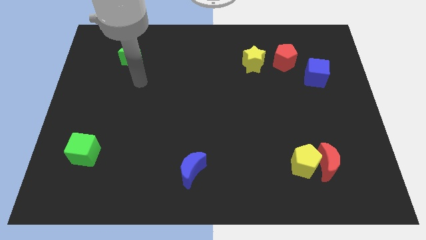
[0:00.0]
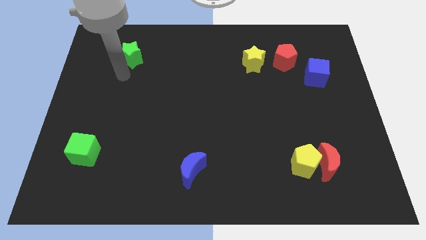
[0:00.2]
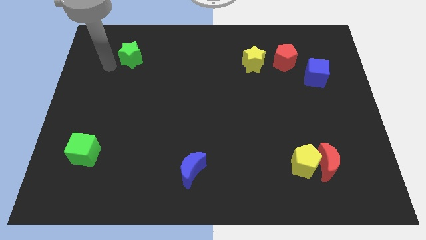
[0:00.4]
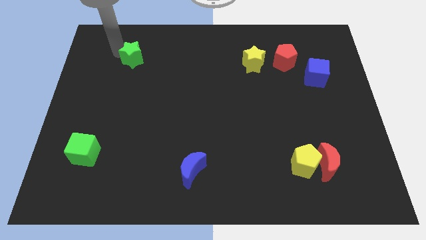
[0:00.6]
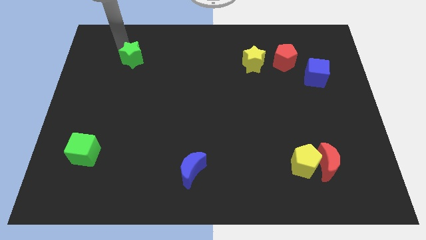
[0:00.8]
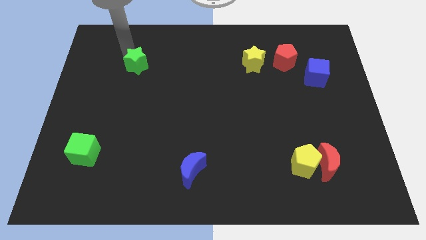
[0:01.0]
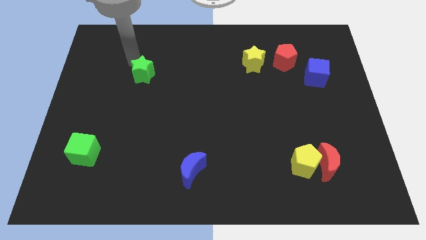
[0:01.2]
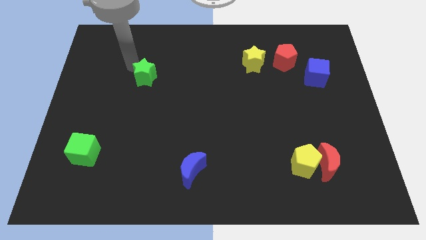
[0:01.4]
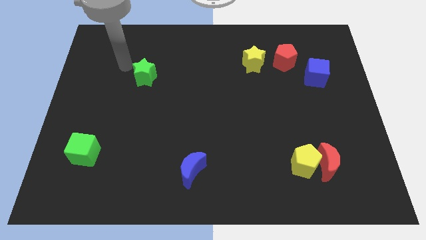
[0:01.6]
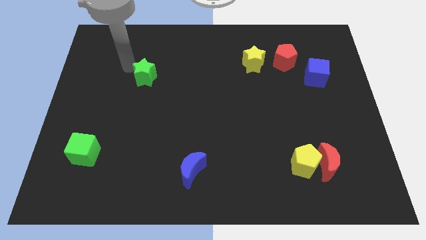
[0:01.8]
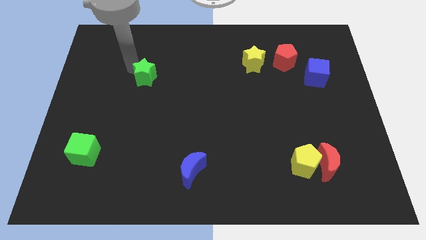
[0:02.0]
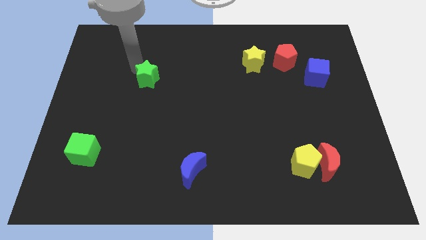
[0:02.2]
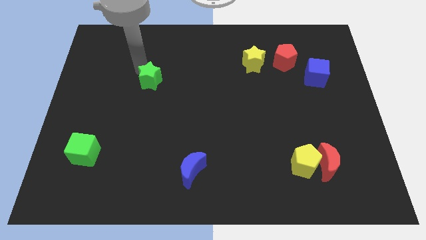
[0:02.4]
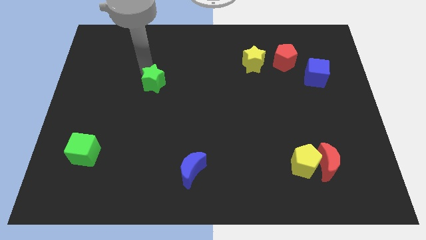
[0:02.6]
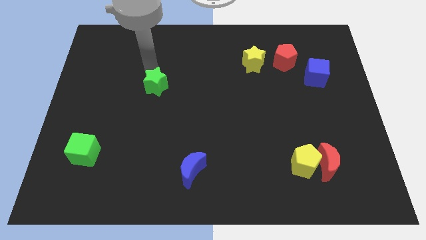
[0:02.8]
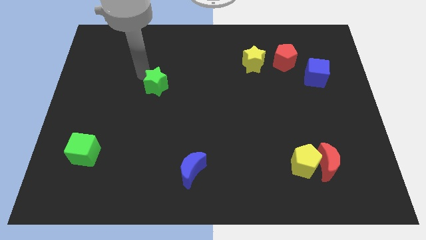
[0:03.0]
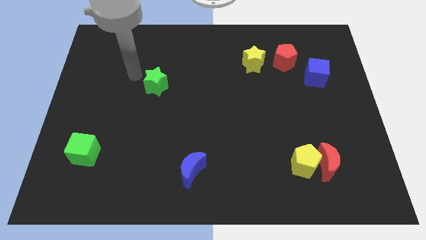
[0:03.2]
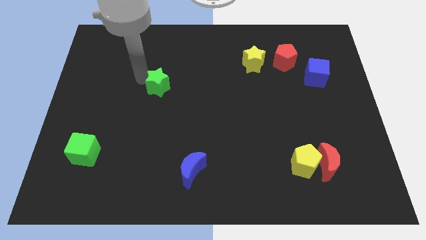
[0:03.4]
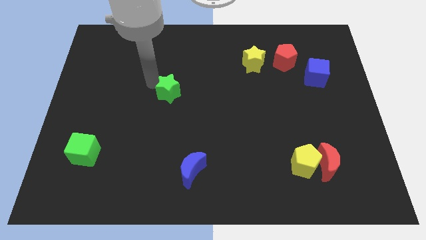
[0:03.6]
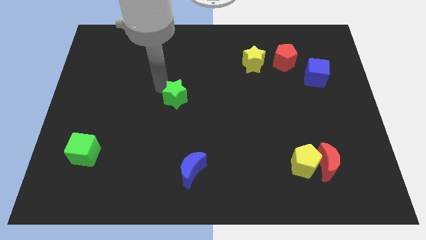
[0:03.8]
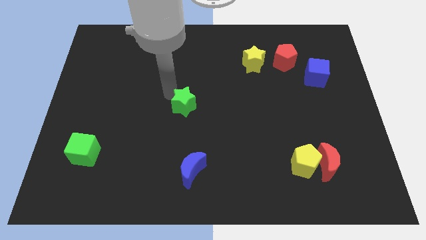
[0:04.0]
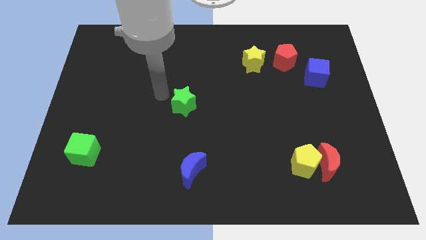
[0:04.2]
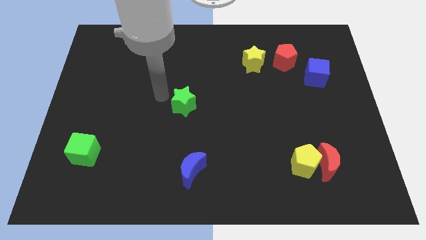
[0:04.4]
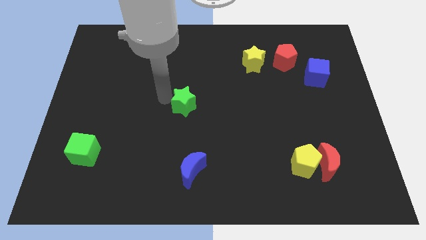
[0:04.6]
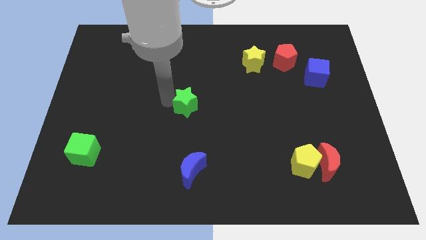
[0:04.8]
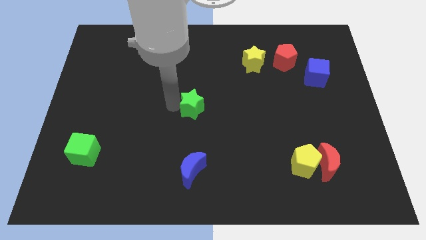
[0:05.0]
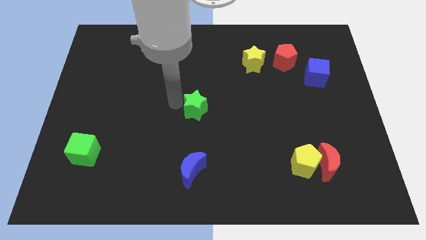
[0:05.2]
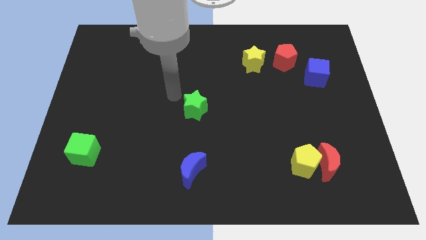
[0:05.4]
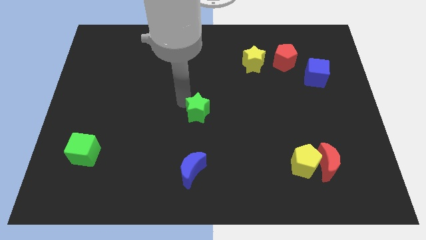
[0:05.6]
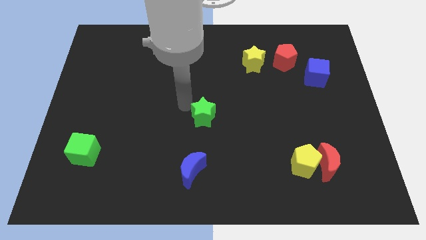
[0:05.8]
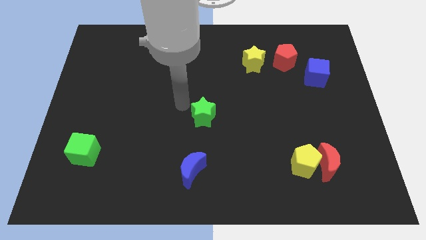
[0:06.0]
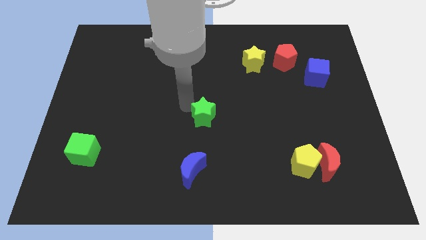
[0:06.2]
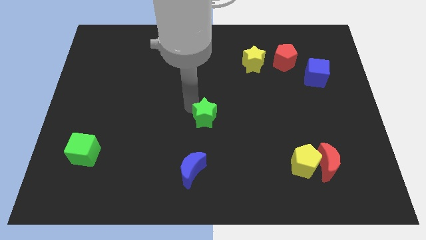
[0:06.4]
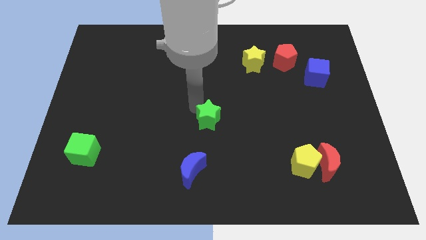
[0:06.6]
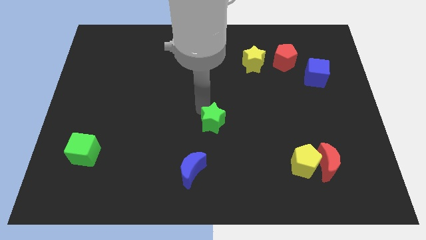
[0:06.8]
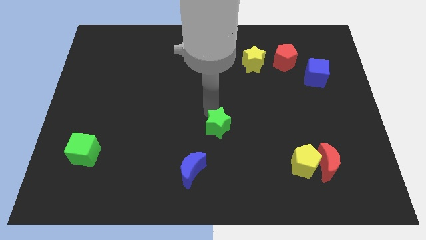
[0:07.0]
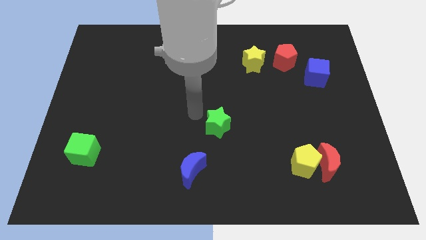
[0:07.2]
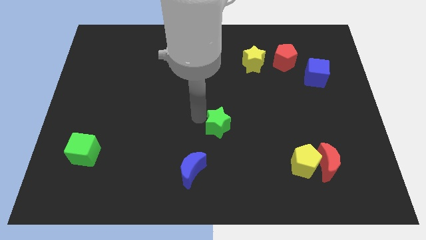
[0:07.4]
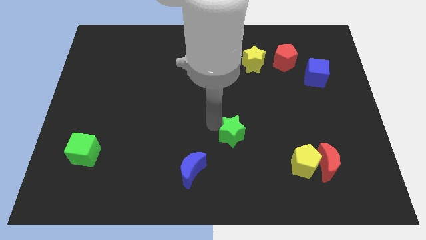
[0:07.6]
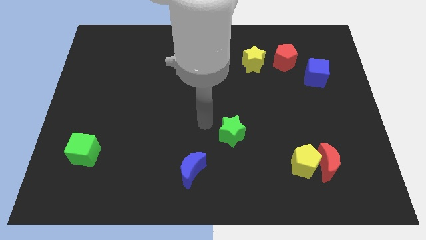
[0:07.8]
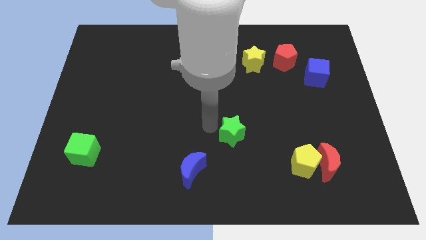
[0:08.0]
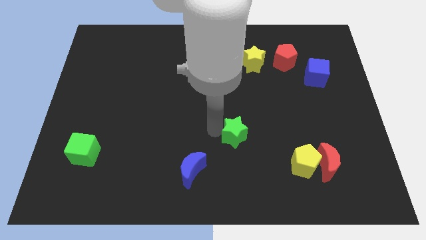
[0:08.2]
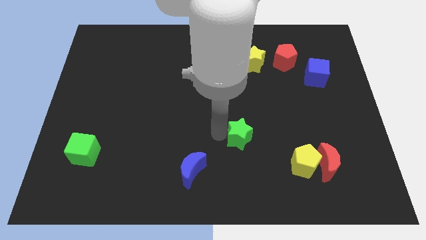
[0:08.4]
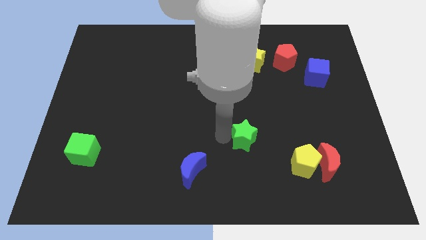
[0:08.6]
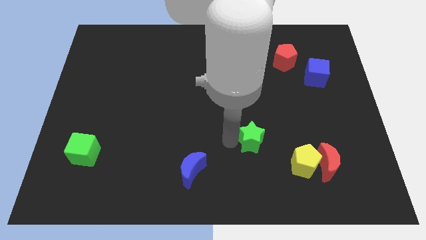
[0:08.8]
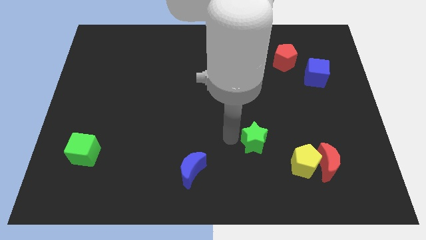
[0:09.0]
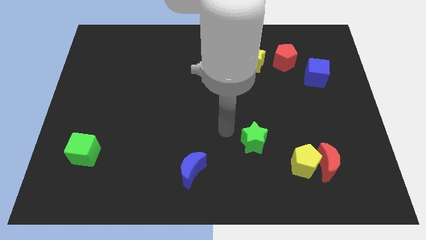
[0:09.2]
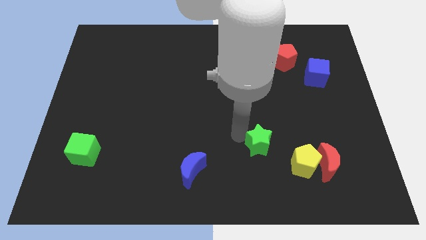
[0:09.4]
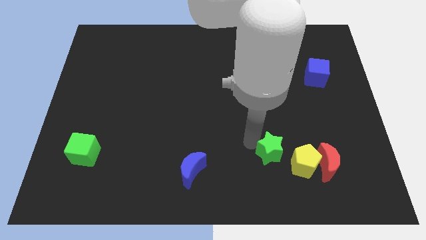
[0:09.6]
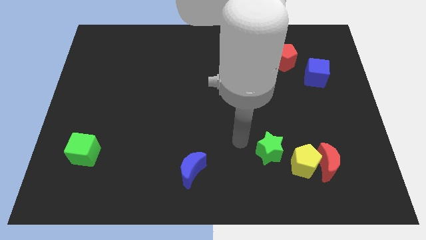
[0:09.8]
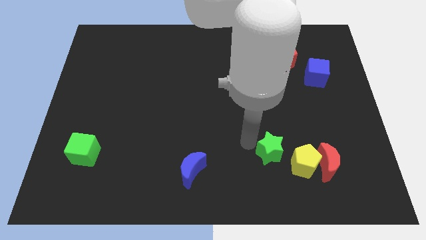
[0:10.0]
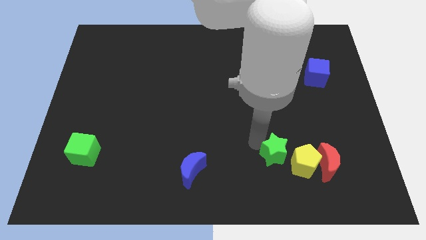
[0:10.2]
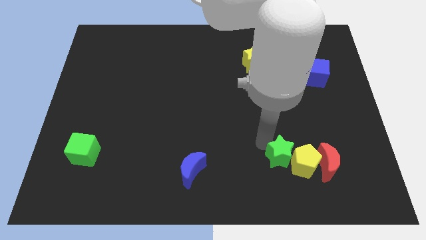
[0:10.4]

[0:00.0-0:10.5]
move the green star towards the yellow pentagon

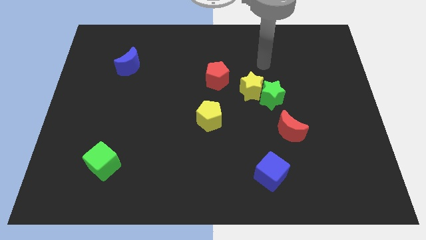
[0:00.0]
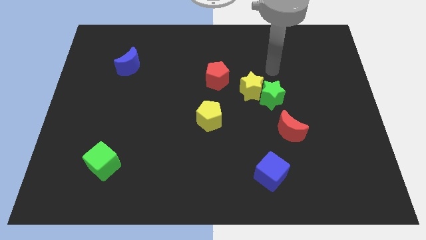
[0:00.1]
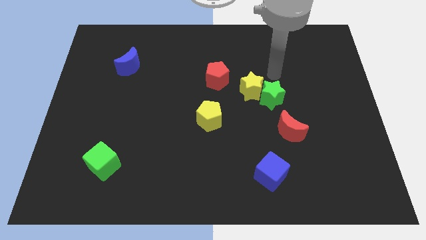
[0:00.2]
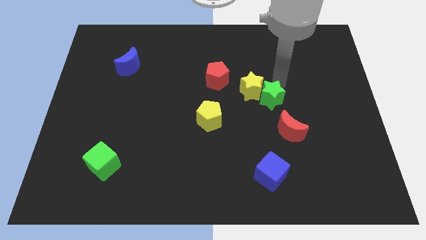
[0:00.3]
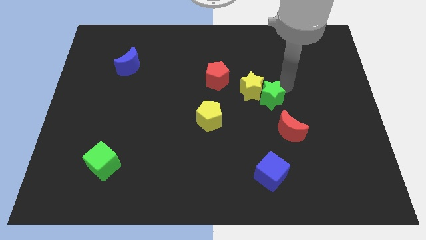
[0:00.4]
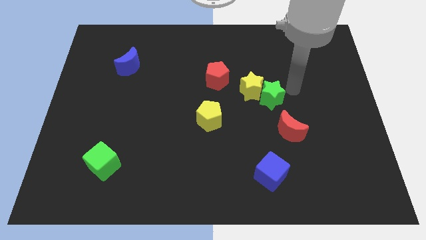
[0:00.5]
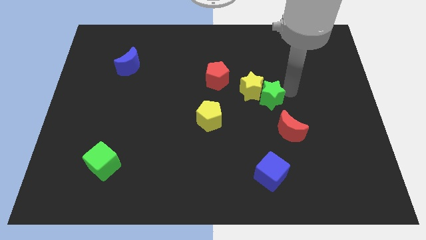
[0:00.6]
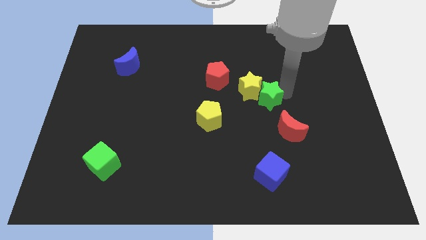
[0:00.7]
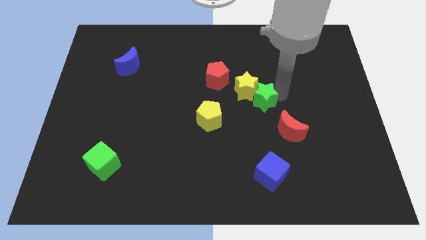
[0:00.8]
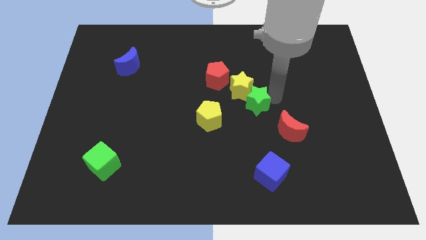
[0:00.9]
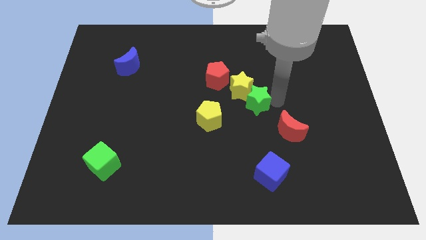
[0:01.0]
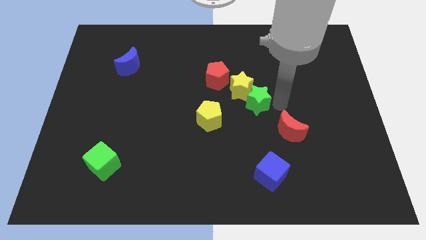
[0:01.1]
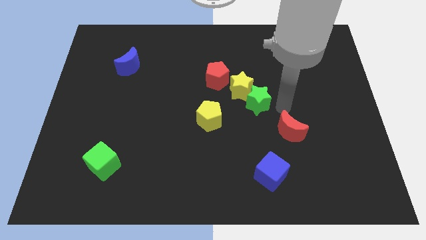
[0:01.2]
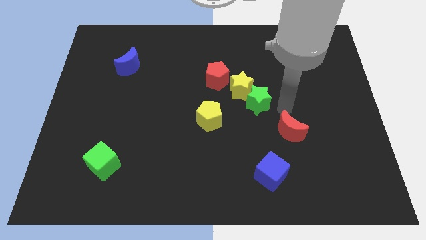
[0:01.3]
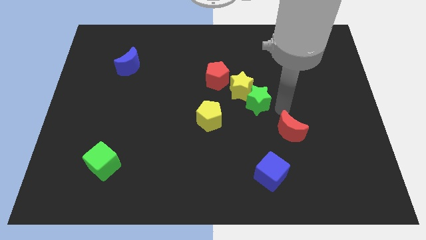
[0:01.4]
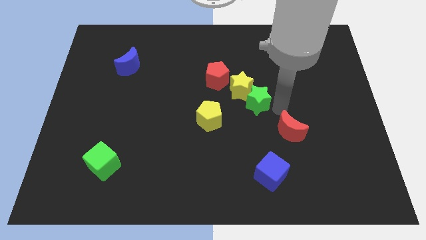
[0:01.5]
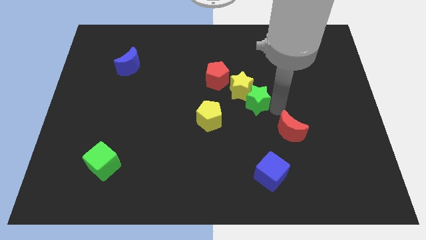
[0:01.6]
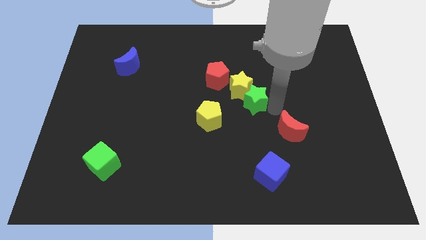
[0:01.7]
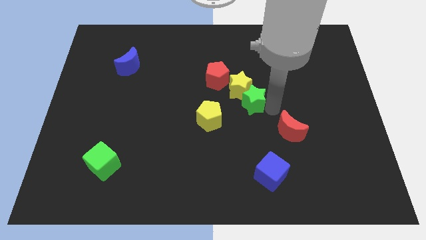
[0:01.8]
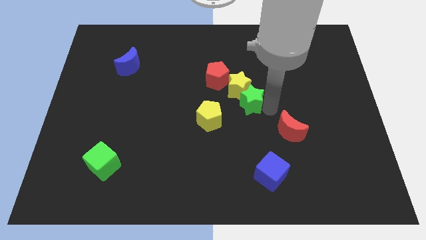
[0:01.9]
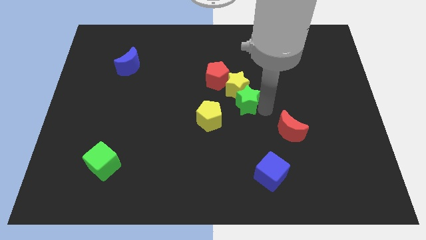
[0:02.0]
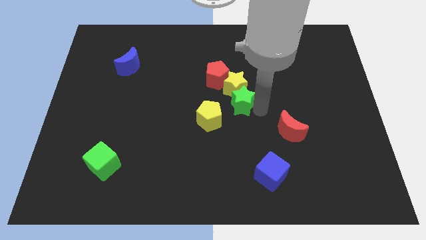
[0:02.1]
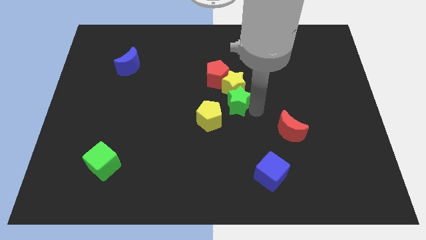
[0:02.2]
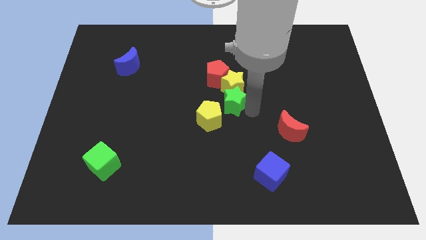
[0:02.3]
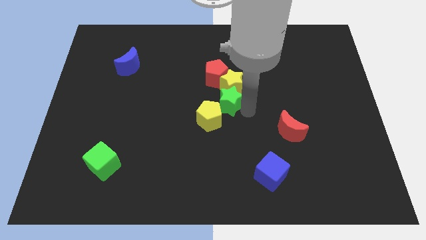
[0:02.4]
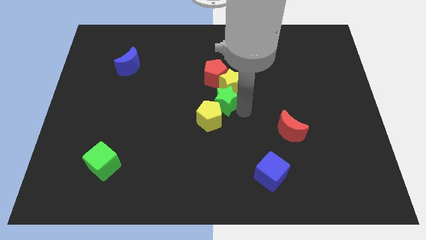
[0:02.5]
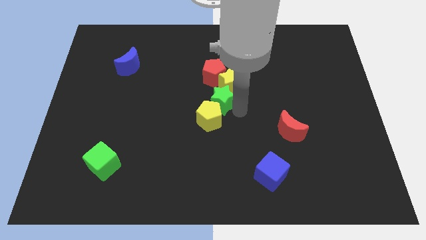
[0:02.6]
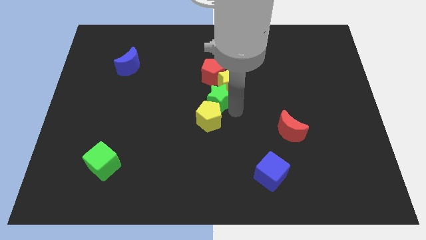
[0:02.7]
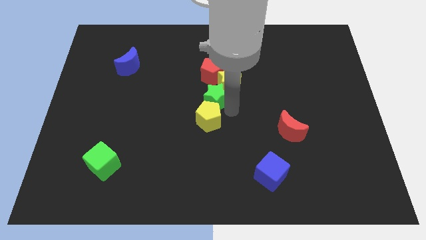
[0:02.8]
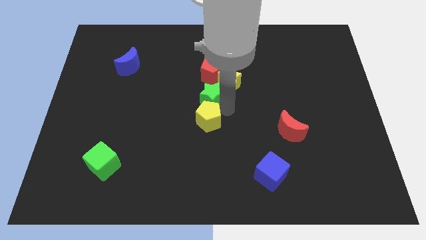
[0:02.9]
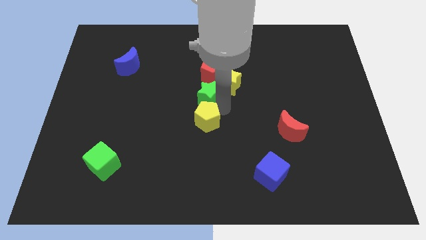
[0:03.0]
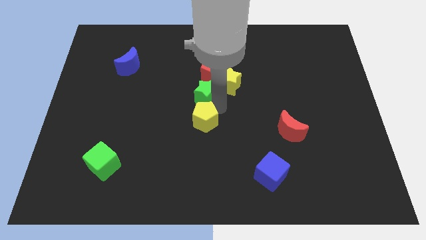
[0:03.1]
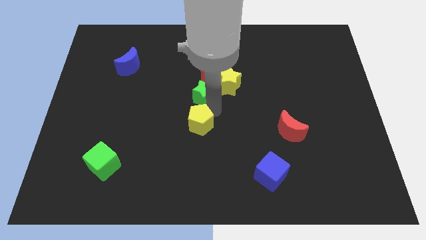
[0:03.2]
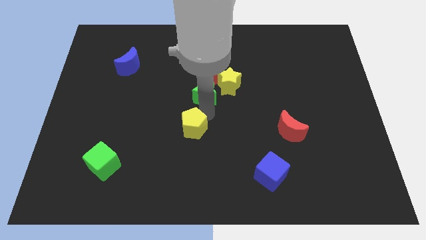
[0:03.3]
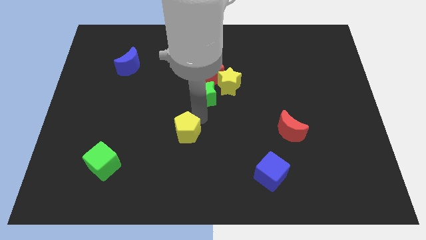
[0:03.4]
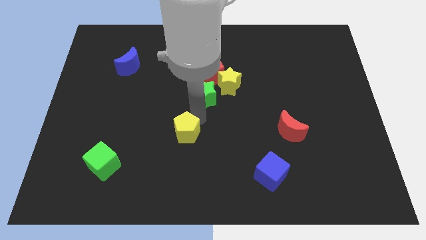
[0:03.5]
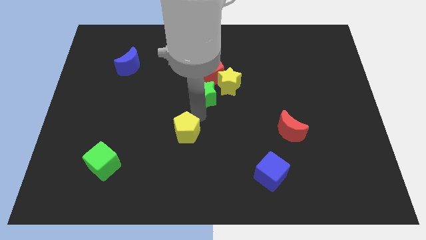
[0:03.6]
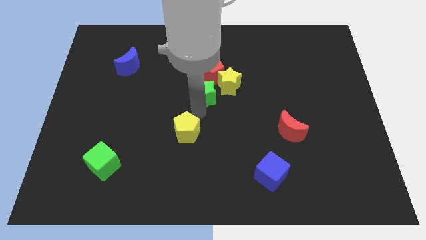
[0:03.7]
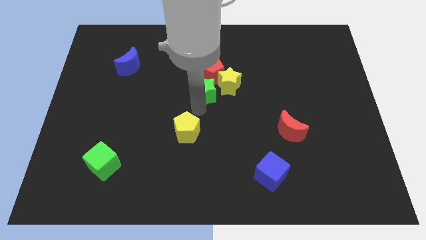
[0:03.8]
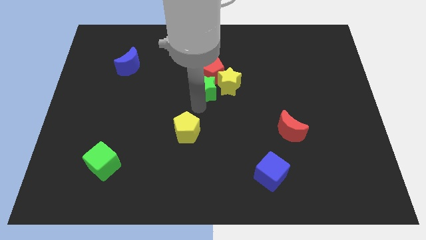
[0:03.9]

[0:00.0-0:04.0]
slide the green star to the red pentagon
